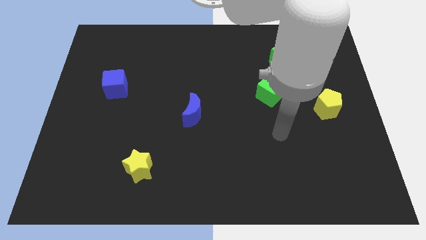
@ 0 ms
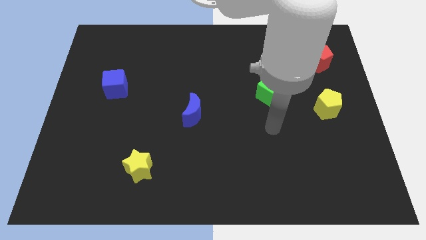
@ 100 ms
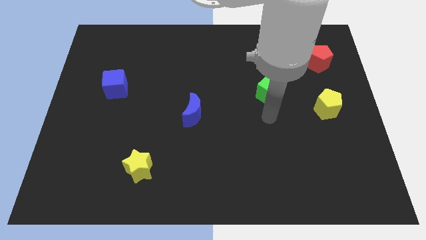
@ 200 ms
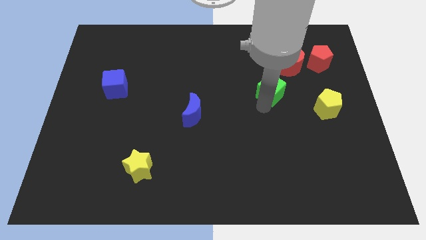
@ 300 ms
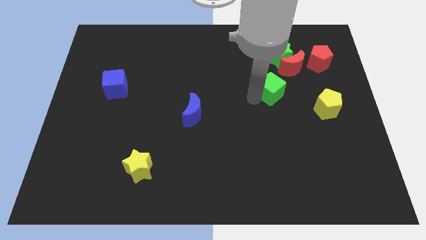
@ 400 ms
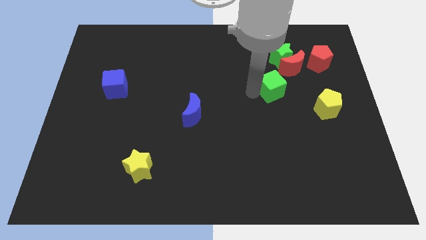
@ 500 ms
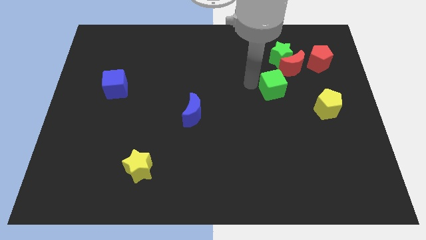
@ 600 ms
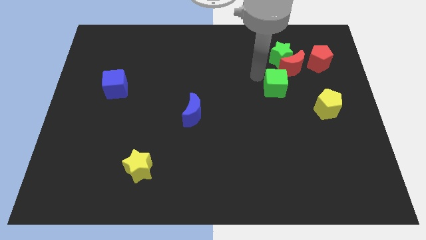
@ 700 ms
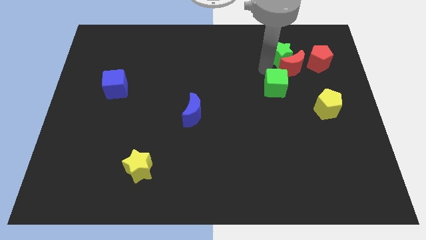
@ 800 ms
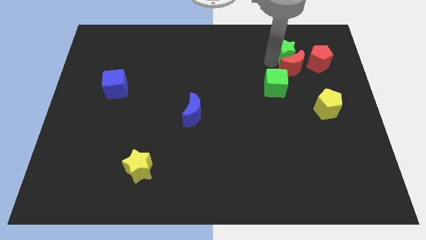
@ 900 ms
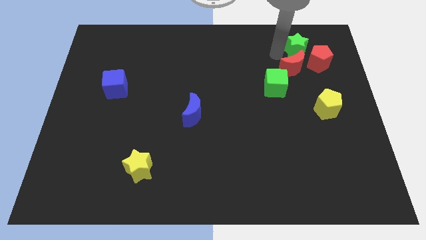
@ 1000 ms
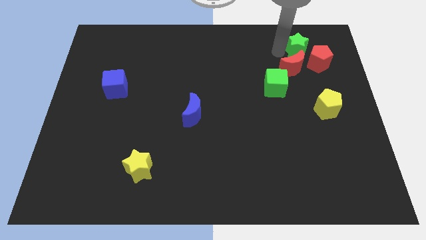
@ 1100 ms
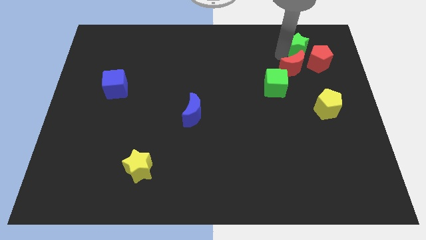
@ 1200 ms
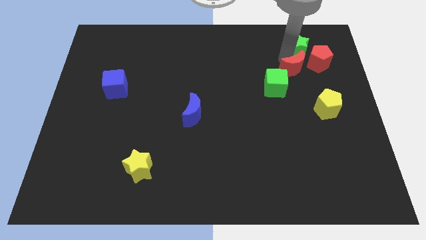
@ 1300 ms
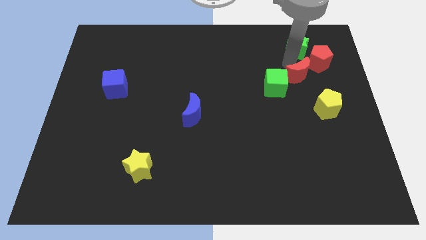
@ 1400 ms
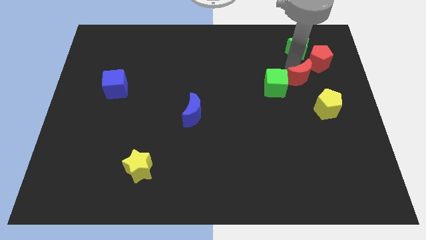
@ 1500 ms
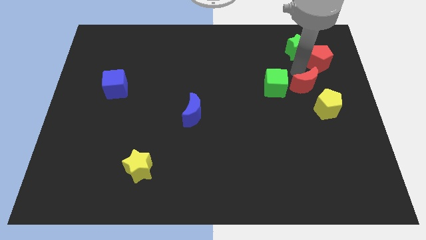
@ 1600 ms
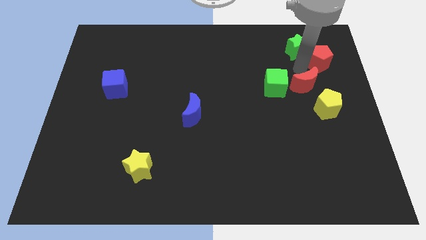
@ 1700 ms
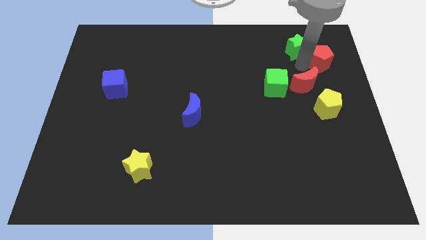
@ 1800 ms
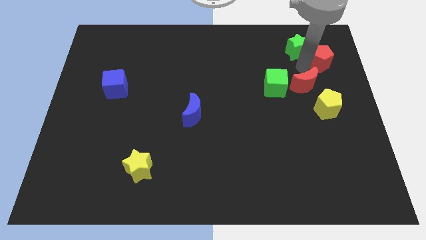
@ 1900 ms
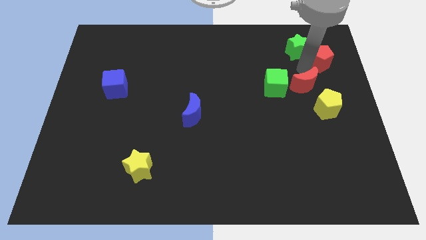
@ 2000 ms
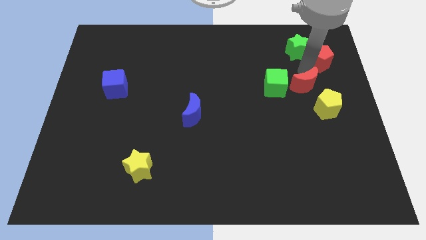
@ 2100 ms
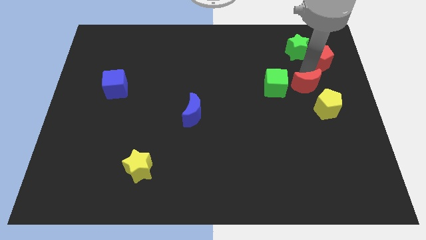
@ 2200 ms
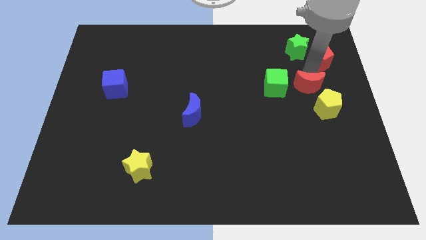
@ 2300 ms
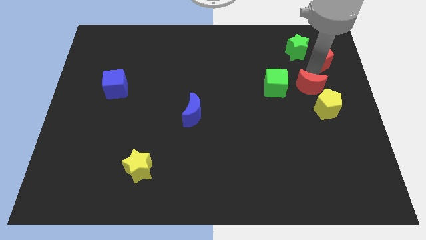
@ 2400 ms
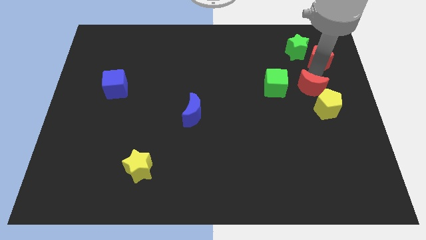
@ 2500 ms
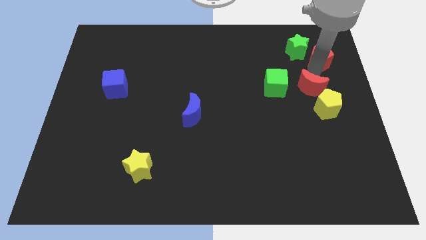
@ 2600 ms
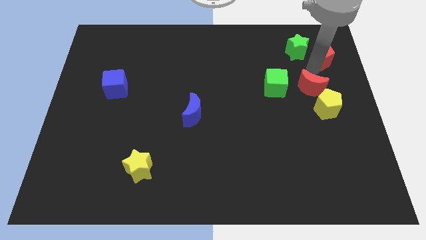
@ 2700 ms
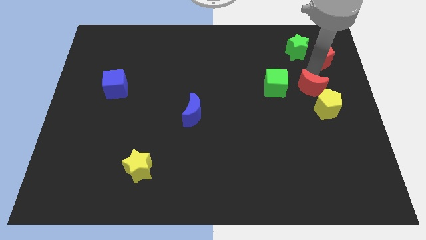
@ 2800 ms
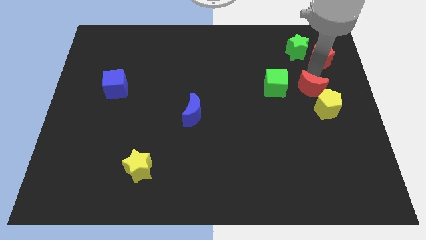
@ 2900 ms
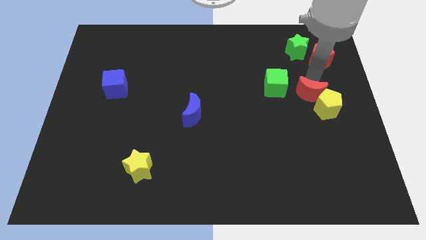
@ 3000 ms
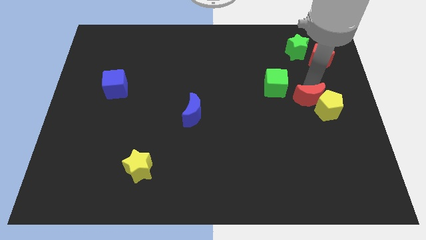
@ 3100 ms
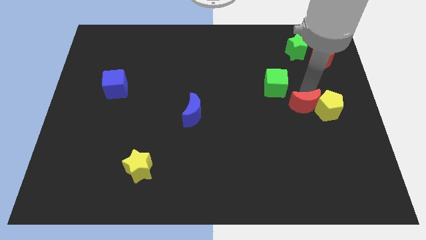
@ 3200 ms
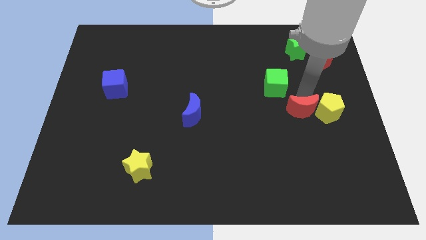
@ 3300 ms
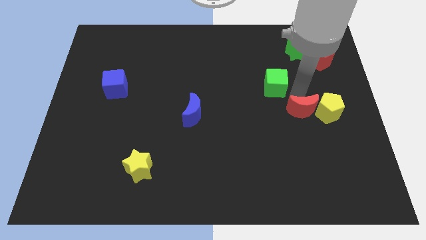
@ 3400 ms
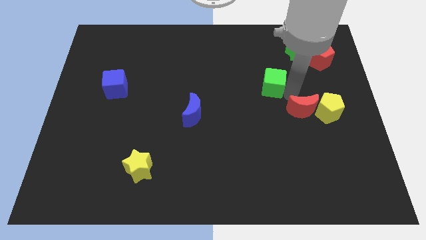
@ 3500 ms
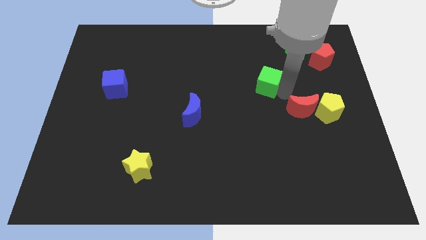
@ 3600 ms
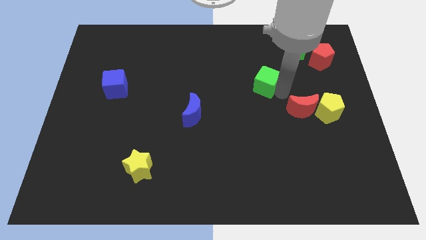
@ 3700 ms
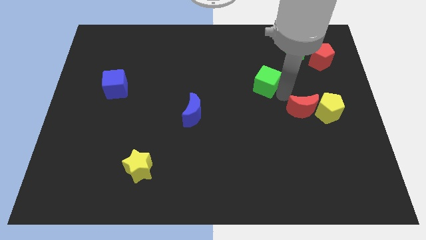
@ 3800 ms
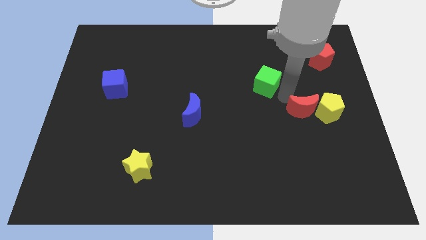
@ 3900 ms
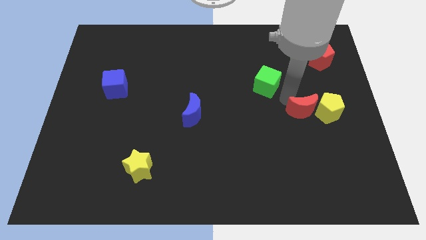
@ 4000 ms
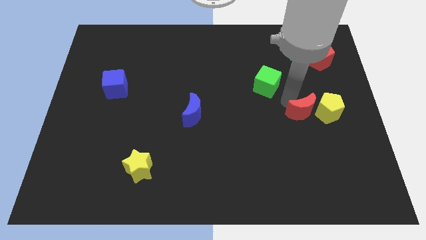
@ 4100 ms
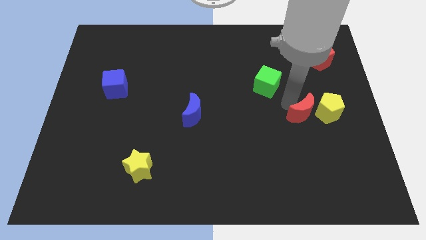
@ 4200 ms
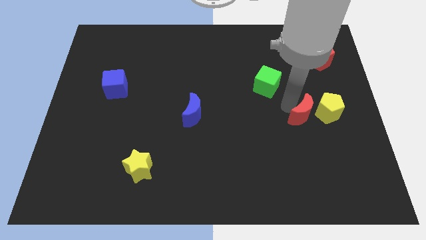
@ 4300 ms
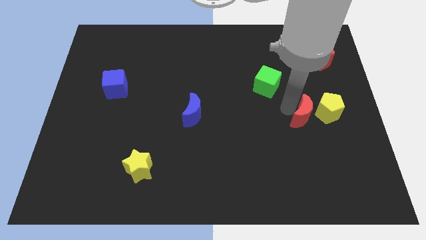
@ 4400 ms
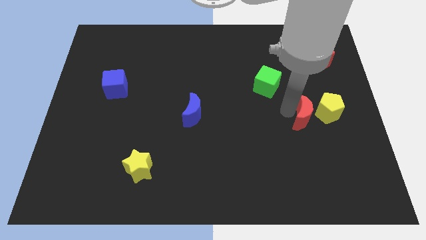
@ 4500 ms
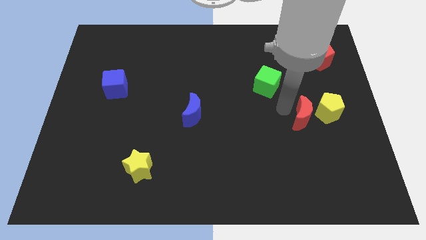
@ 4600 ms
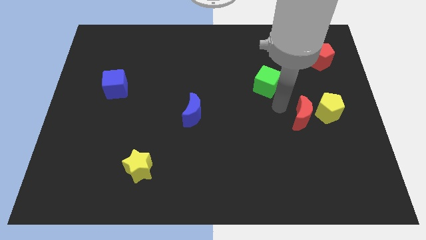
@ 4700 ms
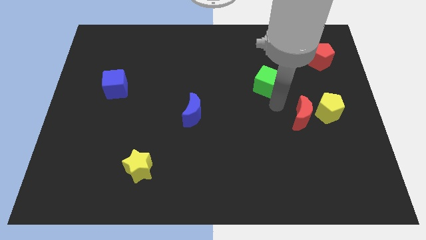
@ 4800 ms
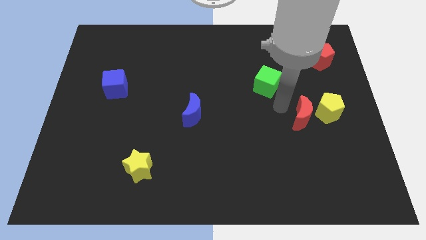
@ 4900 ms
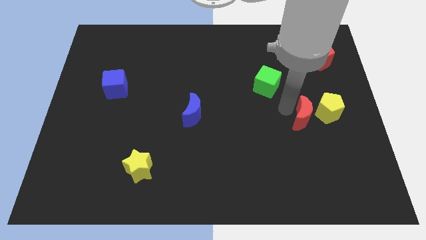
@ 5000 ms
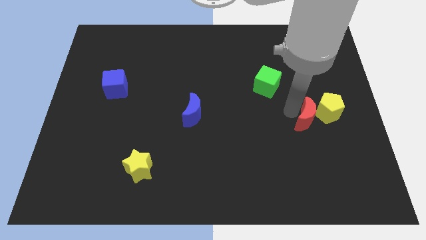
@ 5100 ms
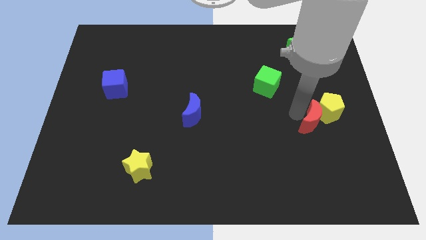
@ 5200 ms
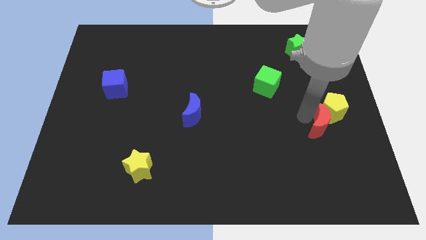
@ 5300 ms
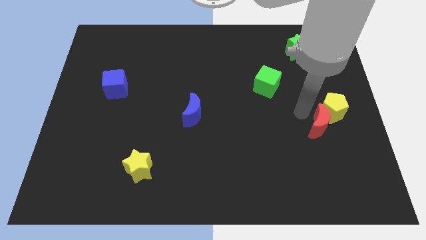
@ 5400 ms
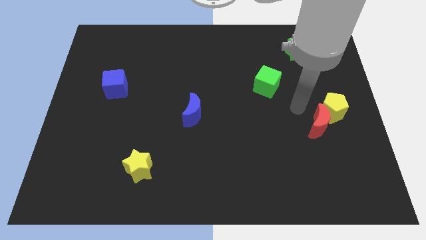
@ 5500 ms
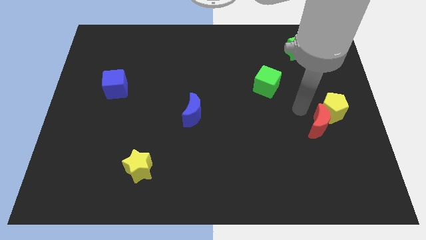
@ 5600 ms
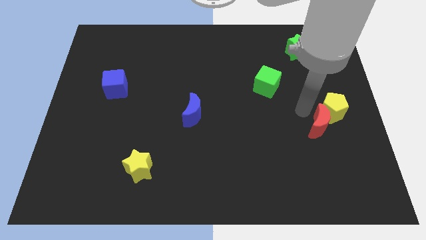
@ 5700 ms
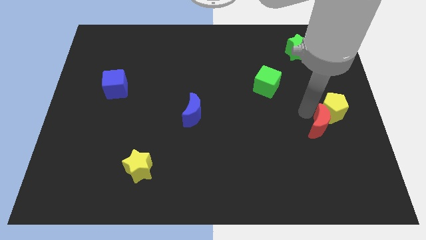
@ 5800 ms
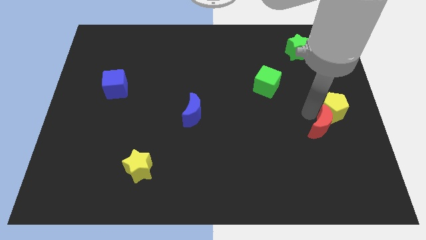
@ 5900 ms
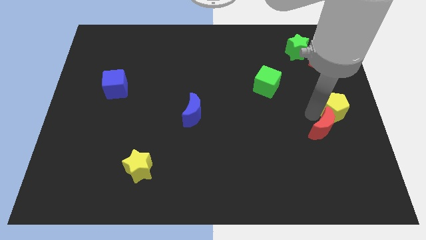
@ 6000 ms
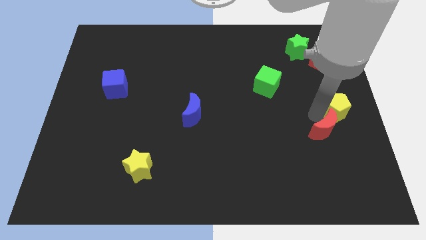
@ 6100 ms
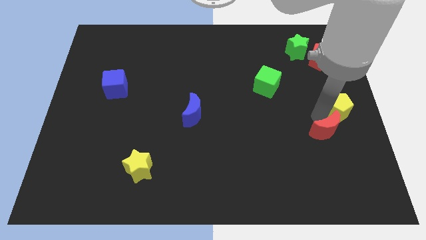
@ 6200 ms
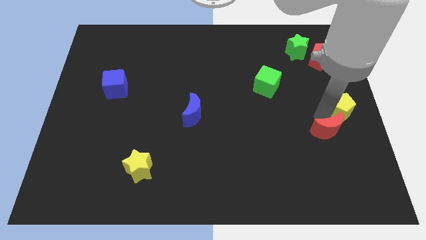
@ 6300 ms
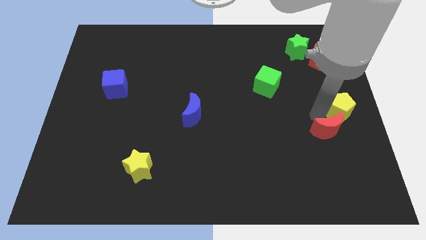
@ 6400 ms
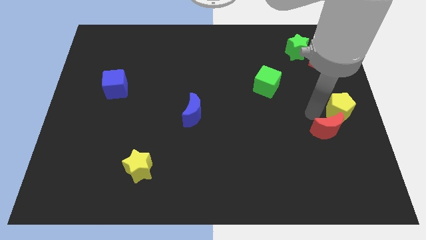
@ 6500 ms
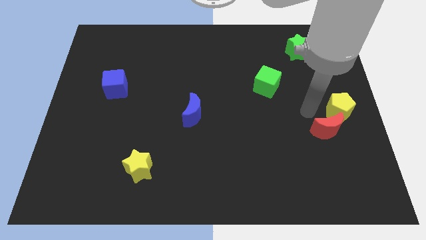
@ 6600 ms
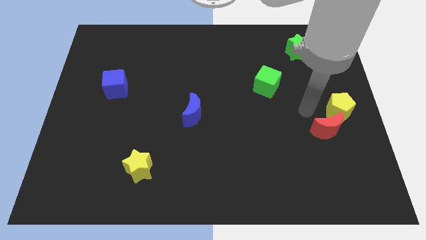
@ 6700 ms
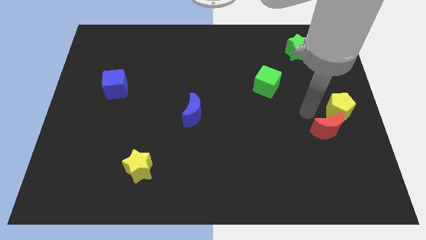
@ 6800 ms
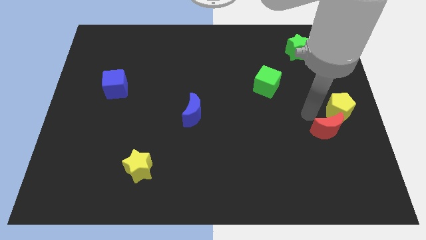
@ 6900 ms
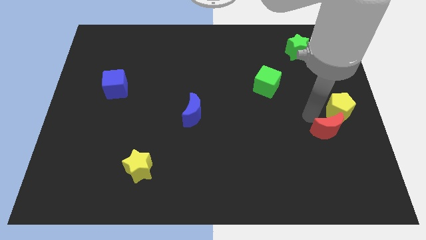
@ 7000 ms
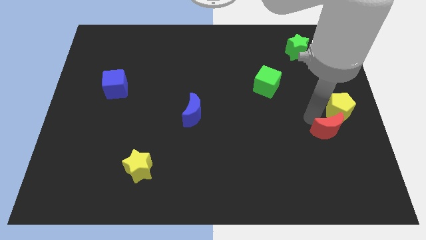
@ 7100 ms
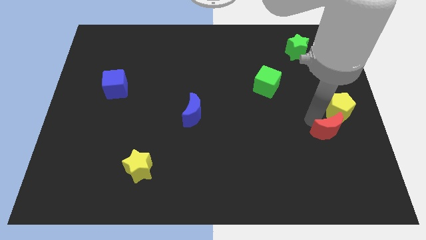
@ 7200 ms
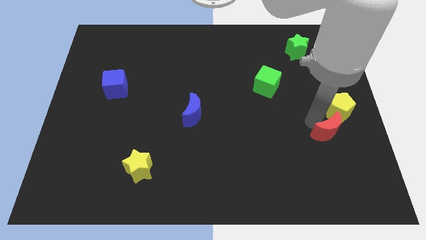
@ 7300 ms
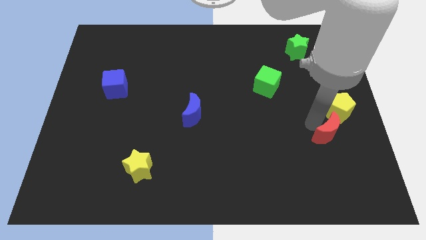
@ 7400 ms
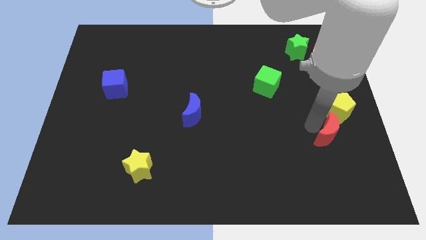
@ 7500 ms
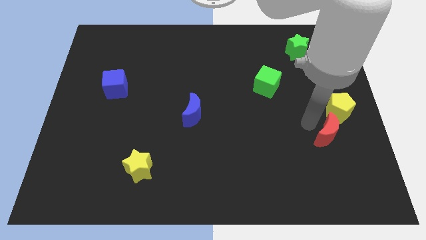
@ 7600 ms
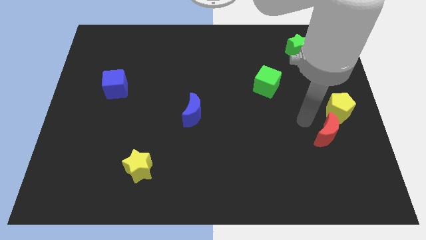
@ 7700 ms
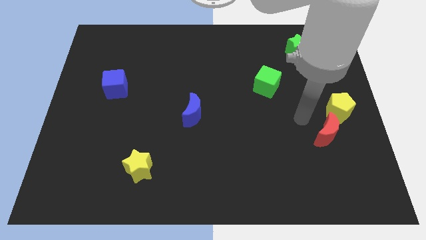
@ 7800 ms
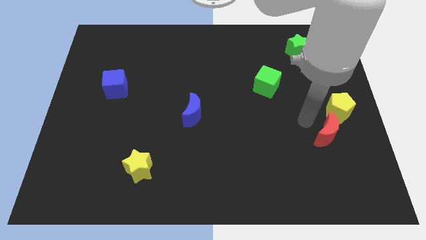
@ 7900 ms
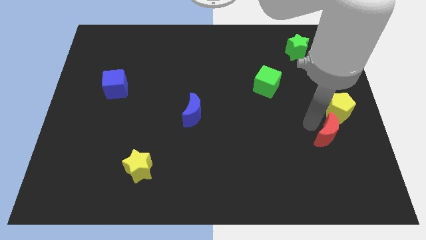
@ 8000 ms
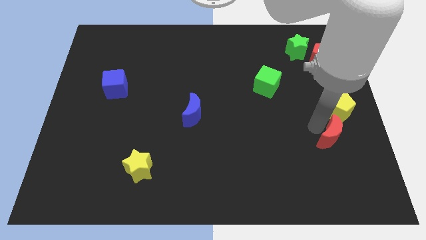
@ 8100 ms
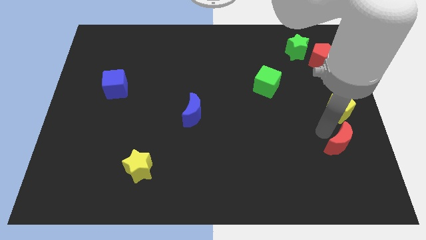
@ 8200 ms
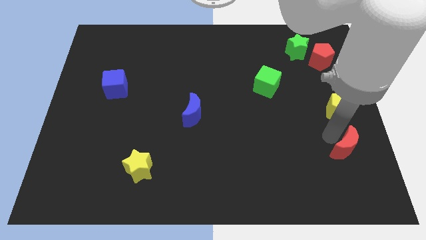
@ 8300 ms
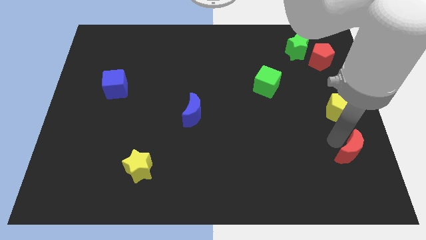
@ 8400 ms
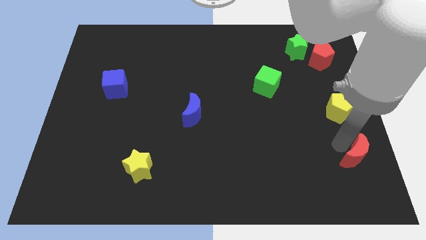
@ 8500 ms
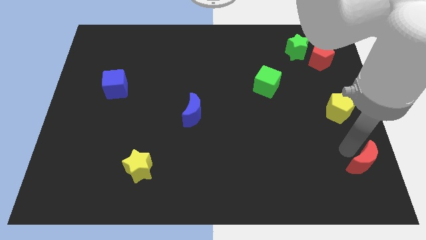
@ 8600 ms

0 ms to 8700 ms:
push the red moon to the bottom right corner
